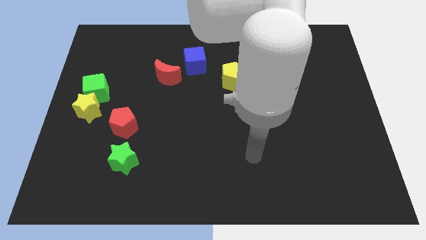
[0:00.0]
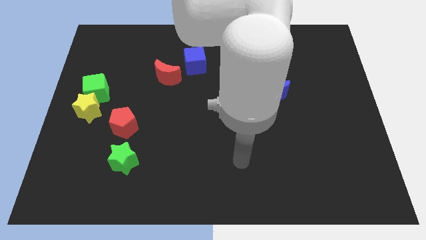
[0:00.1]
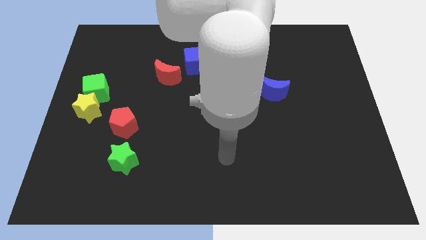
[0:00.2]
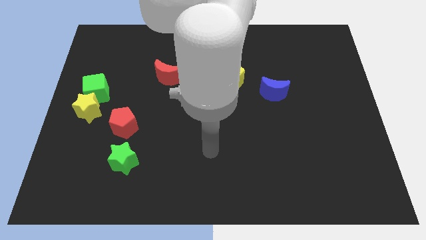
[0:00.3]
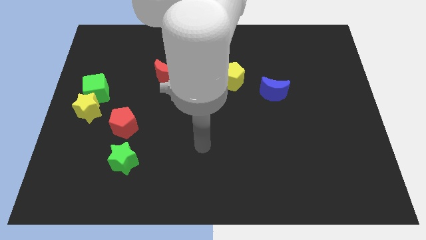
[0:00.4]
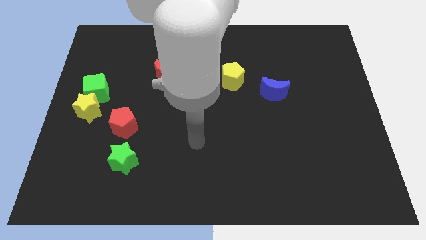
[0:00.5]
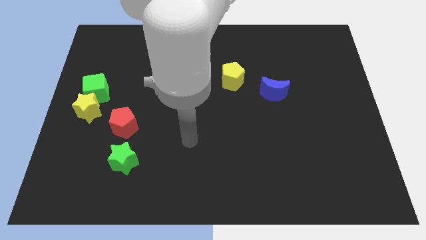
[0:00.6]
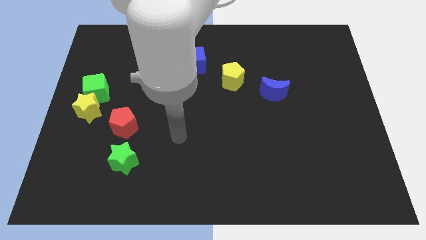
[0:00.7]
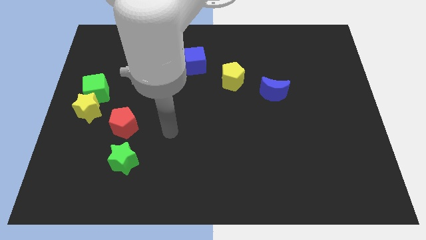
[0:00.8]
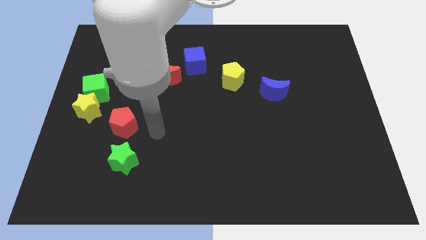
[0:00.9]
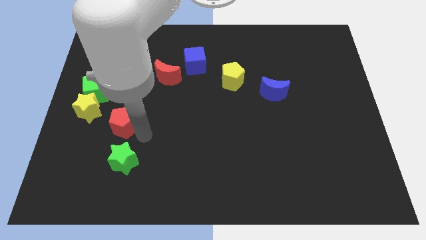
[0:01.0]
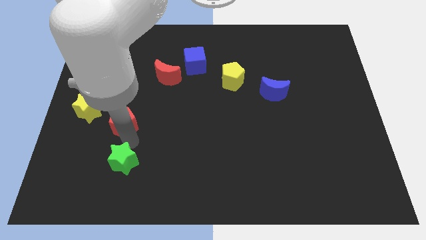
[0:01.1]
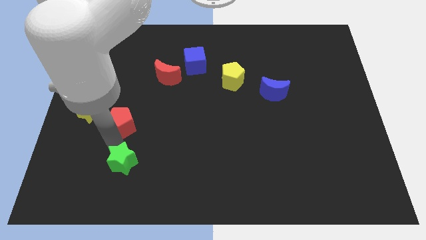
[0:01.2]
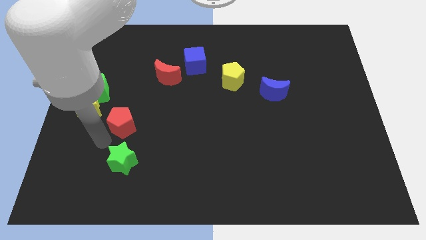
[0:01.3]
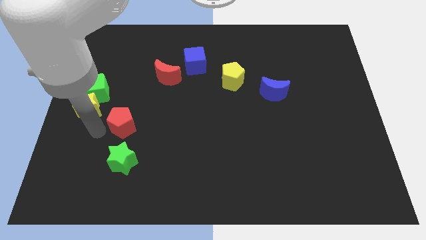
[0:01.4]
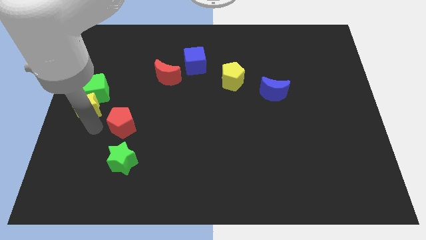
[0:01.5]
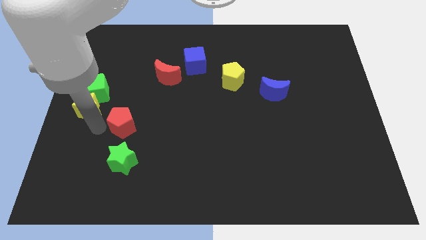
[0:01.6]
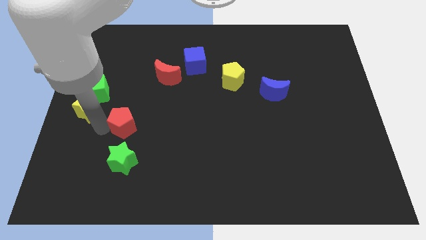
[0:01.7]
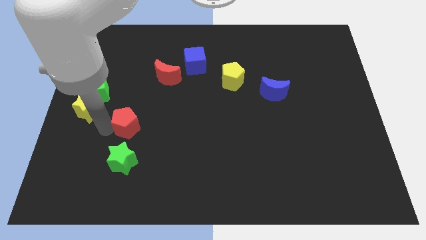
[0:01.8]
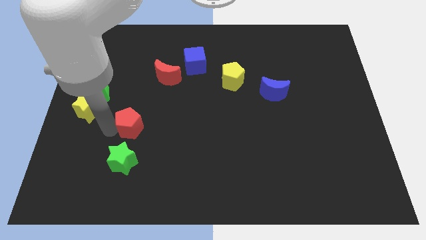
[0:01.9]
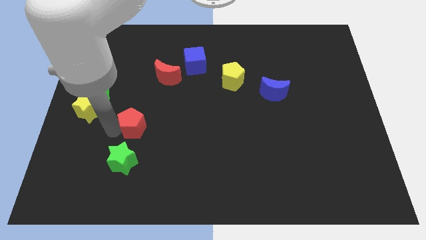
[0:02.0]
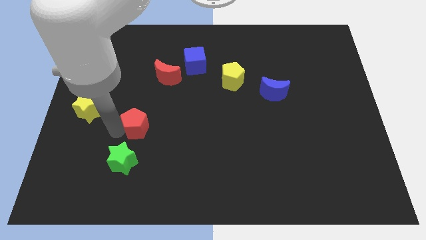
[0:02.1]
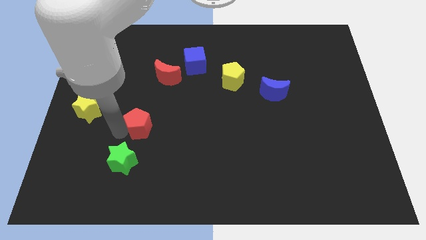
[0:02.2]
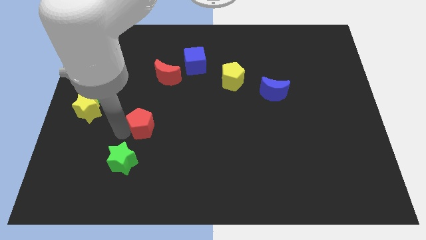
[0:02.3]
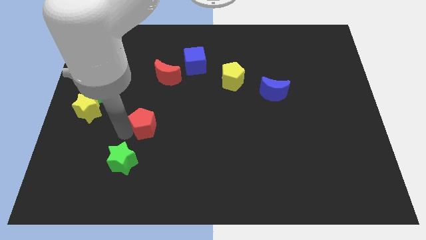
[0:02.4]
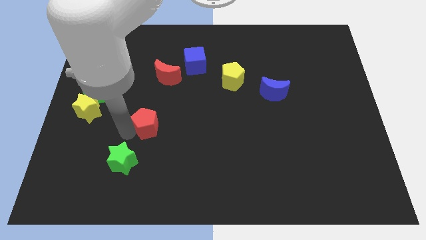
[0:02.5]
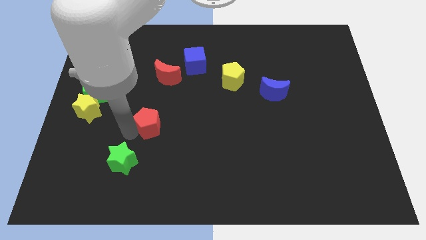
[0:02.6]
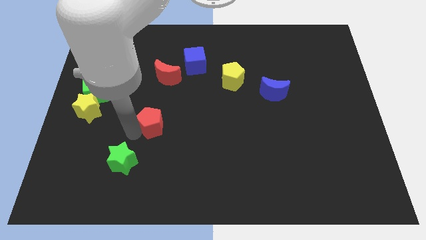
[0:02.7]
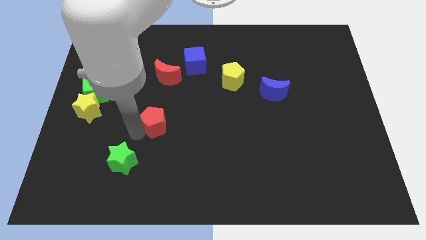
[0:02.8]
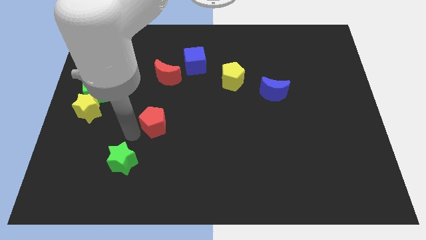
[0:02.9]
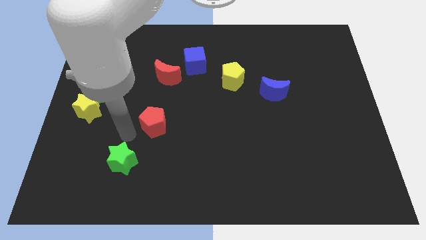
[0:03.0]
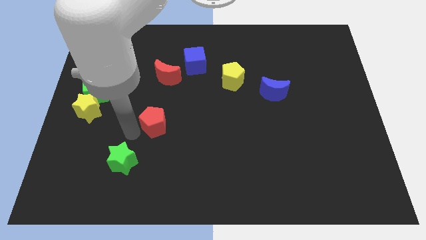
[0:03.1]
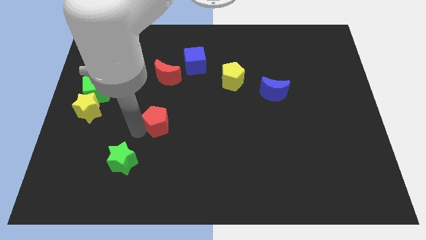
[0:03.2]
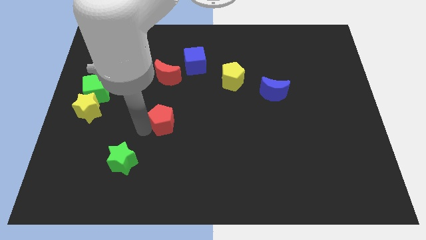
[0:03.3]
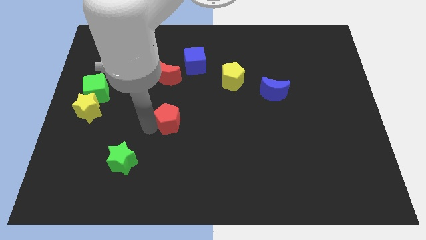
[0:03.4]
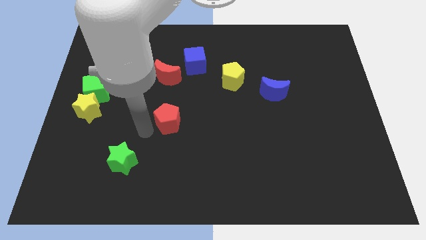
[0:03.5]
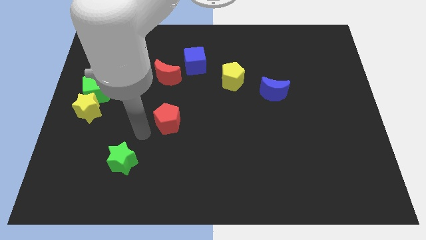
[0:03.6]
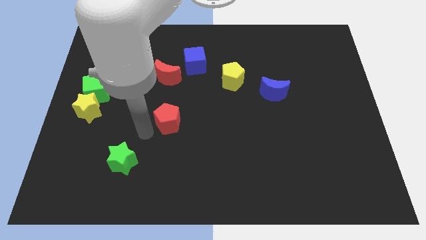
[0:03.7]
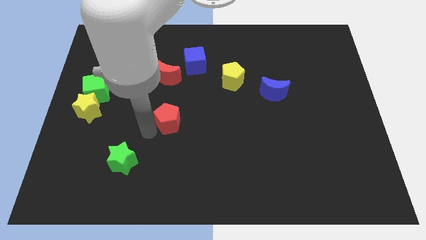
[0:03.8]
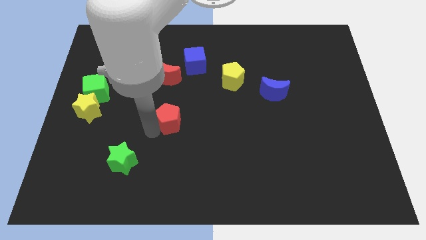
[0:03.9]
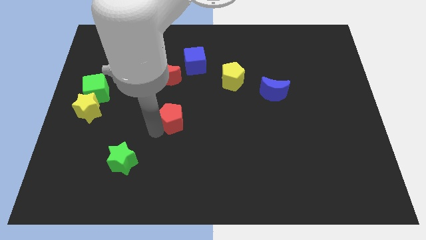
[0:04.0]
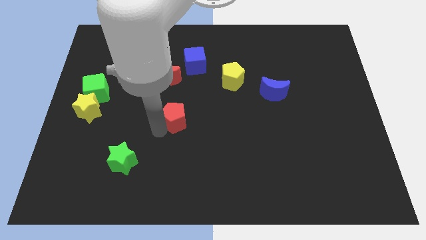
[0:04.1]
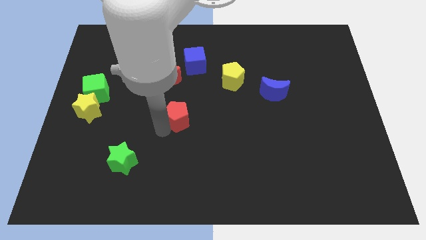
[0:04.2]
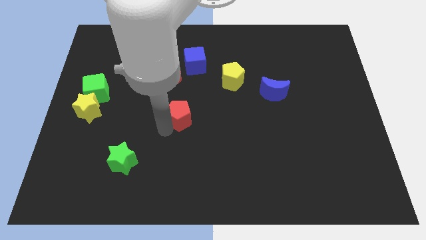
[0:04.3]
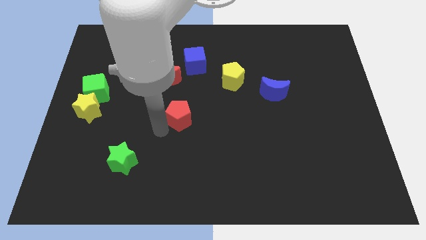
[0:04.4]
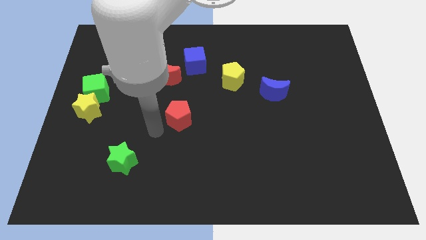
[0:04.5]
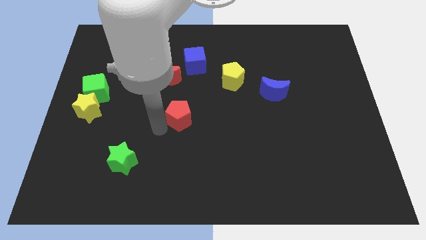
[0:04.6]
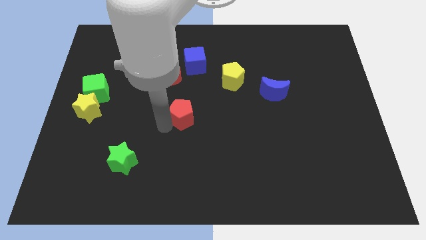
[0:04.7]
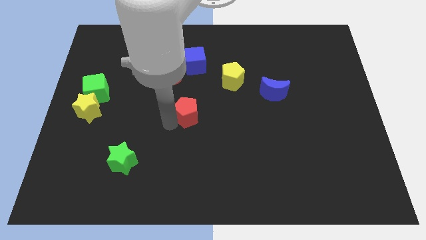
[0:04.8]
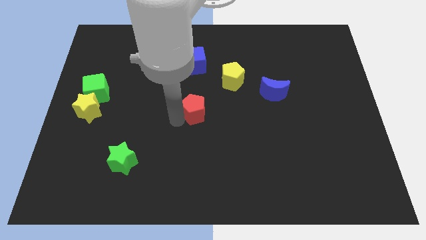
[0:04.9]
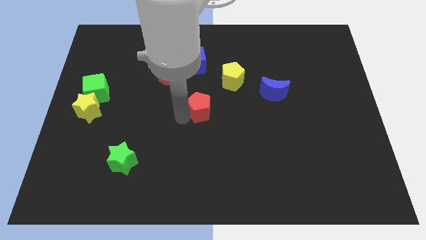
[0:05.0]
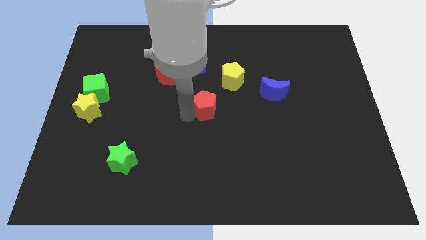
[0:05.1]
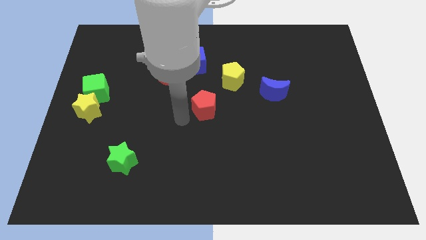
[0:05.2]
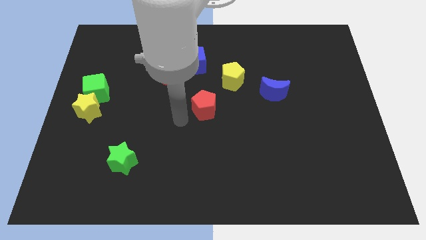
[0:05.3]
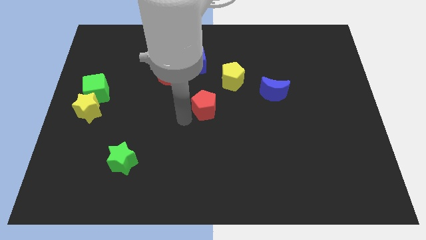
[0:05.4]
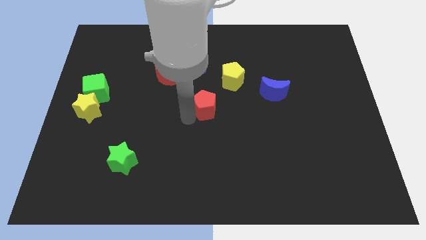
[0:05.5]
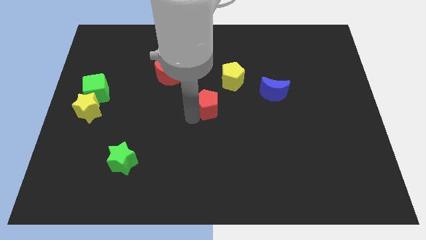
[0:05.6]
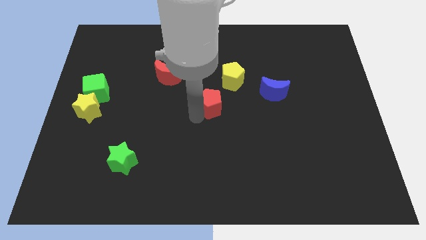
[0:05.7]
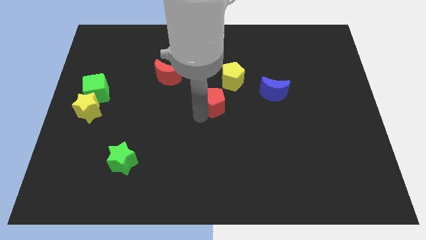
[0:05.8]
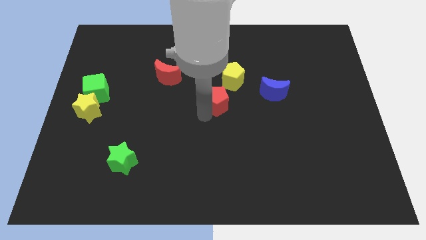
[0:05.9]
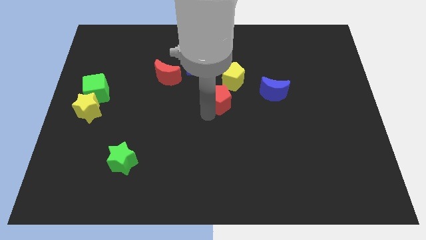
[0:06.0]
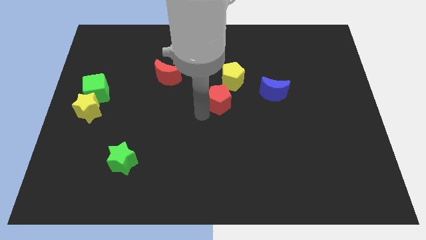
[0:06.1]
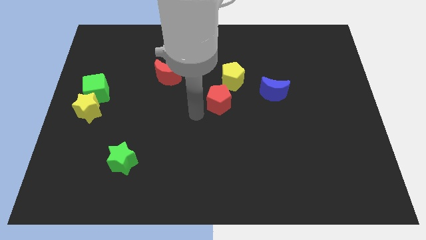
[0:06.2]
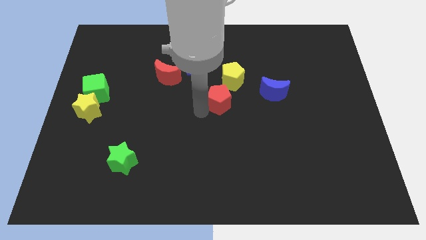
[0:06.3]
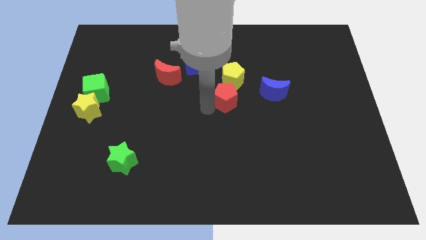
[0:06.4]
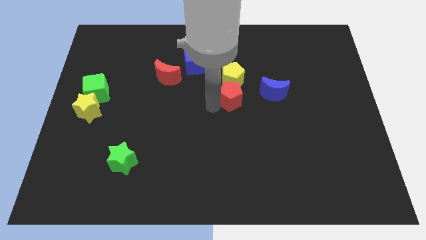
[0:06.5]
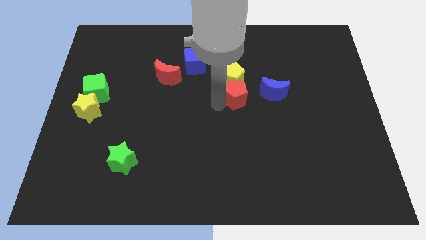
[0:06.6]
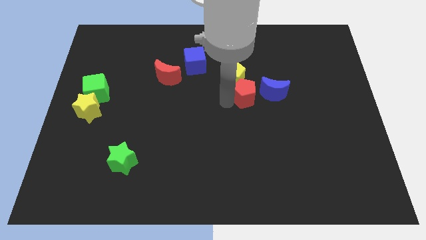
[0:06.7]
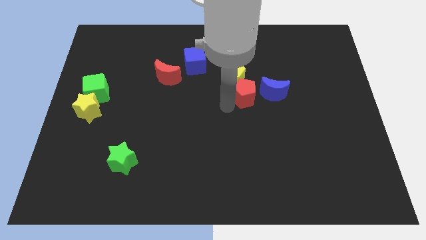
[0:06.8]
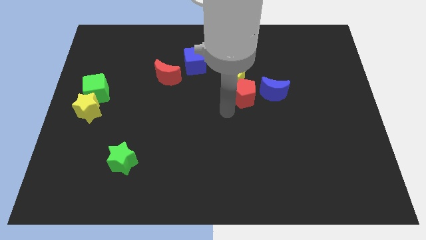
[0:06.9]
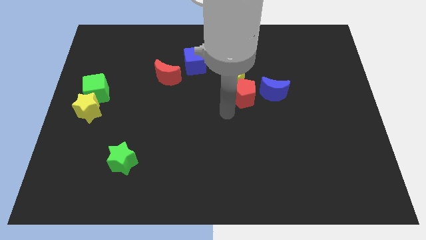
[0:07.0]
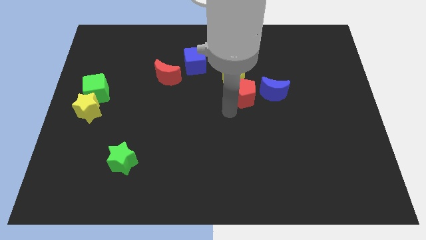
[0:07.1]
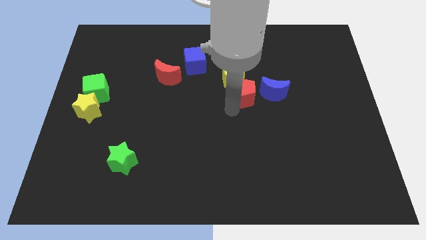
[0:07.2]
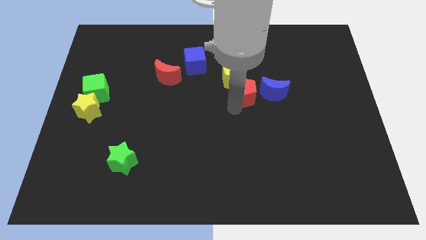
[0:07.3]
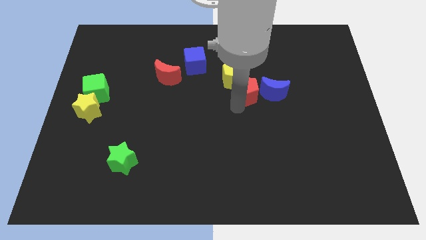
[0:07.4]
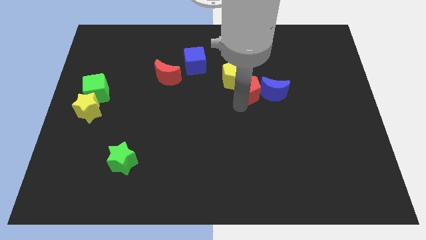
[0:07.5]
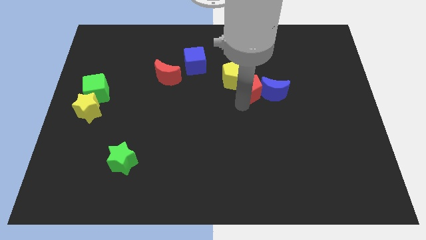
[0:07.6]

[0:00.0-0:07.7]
move the red pentagon to the right side of the yellow pentagon
